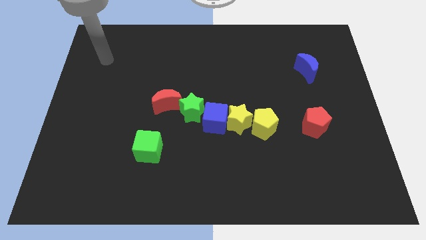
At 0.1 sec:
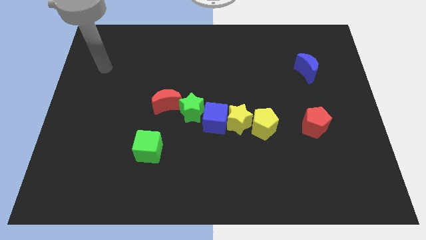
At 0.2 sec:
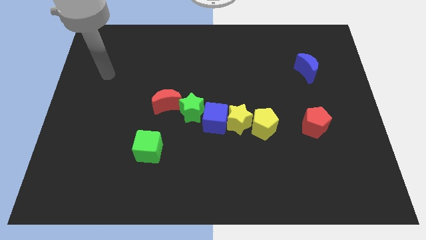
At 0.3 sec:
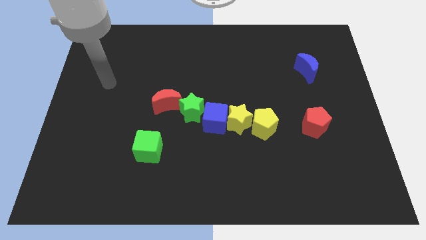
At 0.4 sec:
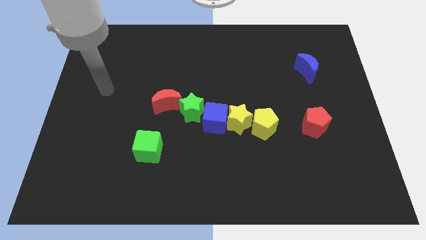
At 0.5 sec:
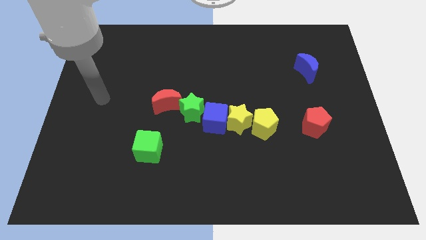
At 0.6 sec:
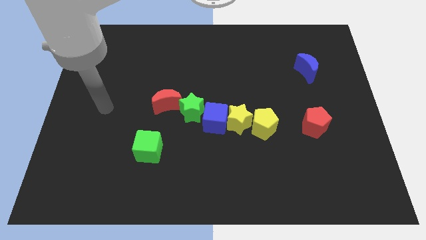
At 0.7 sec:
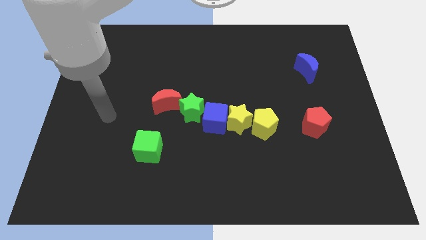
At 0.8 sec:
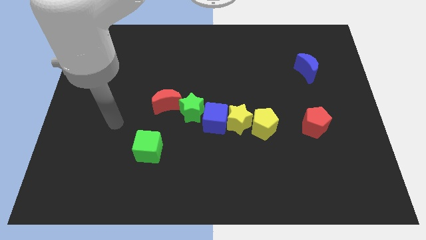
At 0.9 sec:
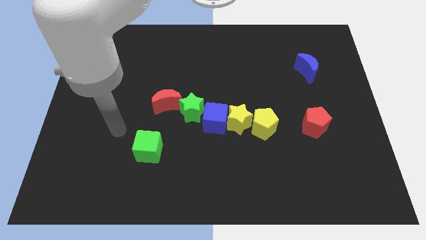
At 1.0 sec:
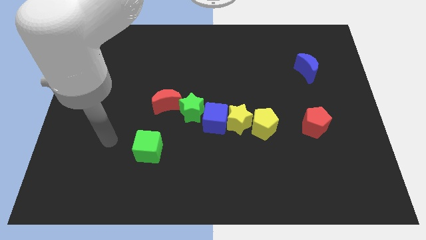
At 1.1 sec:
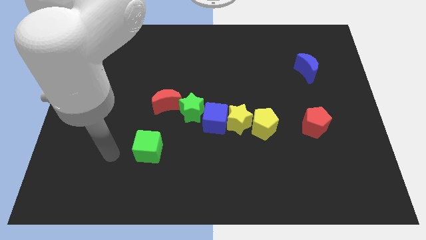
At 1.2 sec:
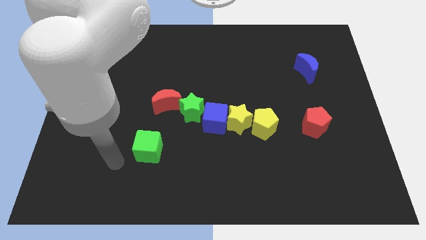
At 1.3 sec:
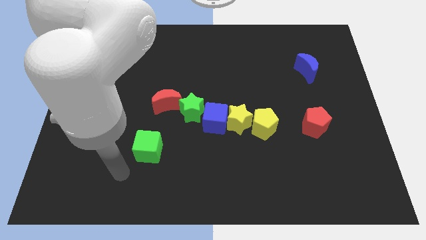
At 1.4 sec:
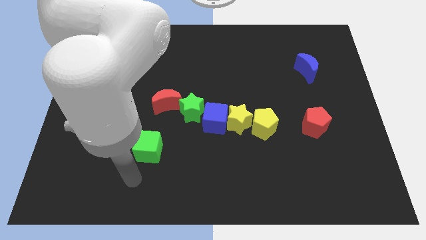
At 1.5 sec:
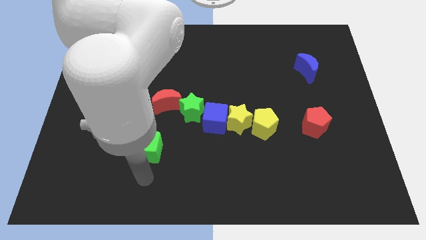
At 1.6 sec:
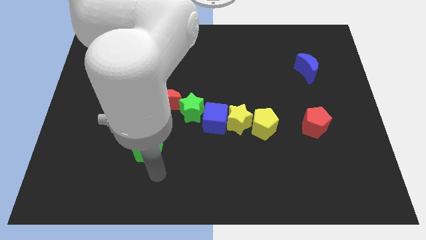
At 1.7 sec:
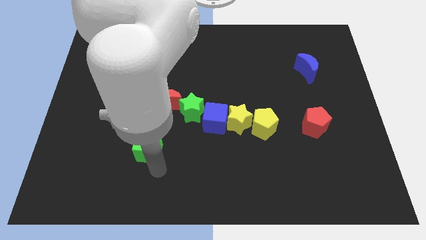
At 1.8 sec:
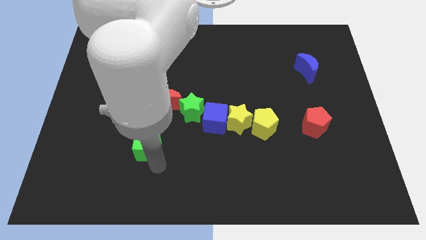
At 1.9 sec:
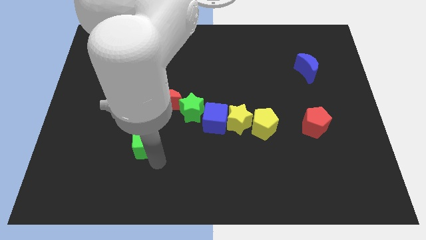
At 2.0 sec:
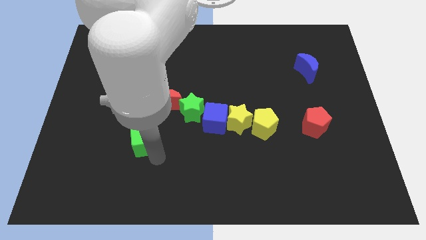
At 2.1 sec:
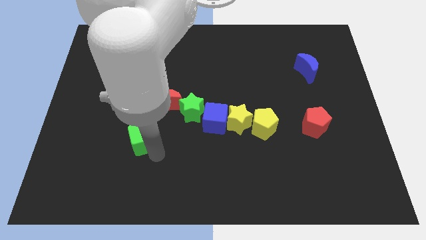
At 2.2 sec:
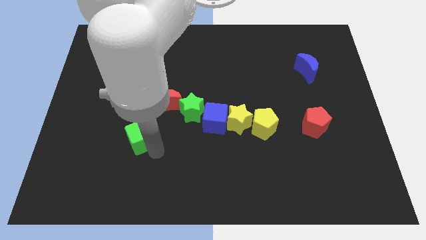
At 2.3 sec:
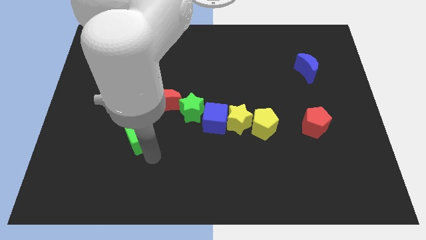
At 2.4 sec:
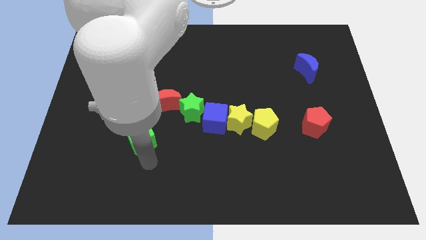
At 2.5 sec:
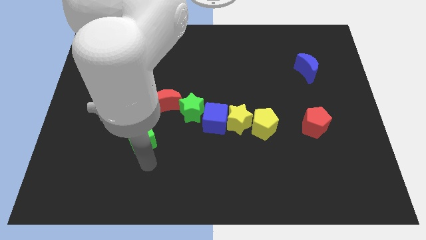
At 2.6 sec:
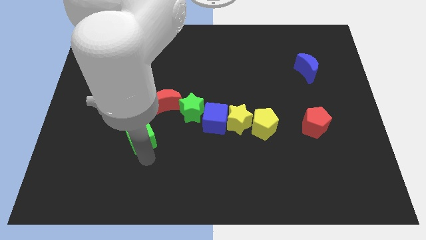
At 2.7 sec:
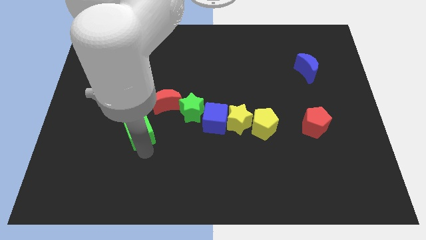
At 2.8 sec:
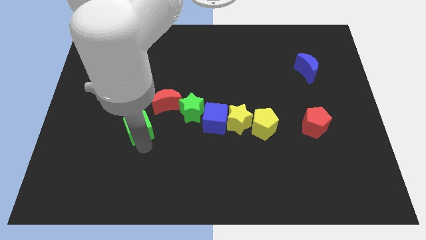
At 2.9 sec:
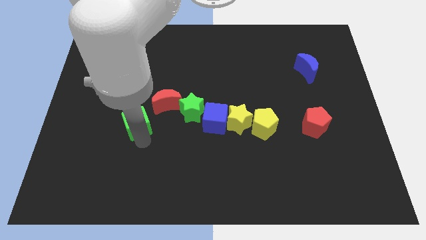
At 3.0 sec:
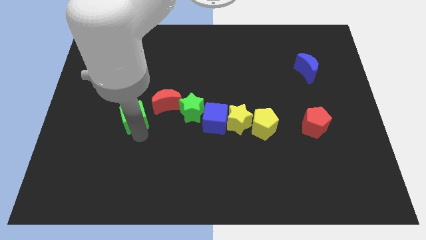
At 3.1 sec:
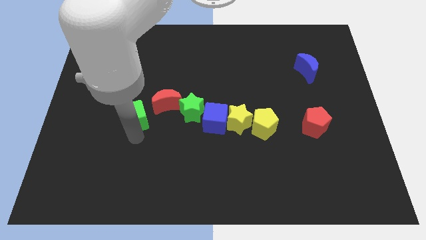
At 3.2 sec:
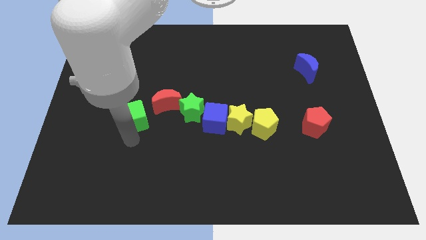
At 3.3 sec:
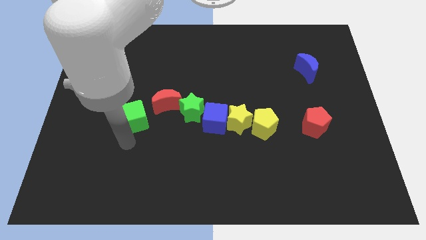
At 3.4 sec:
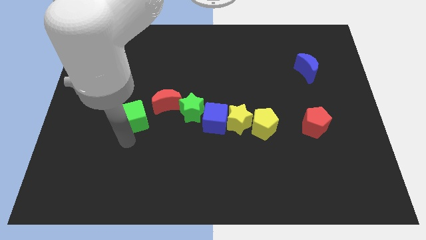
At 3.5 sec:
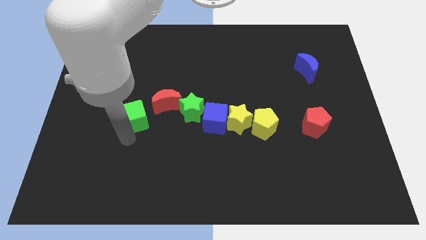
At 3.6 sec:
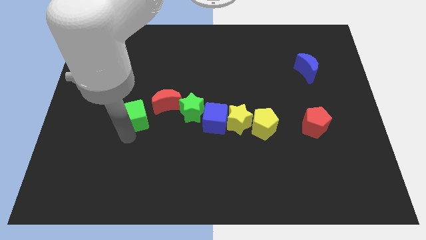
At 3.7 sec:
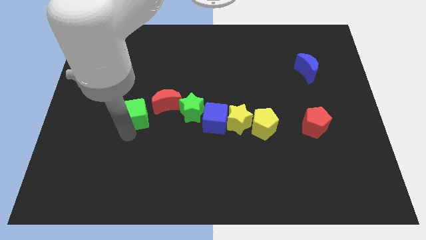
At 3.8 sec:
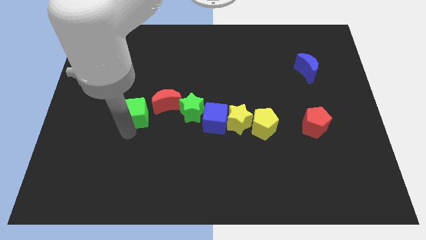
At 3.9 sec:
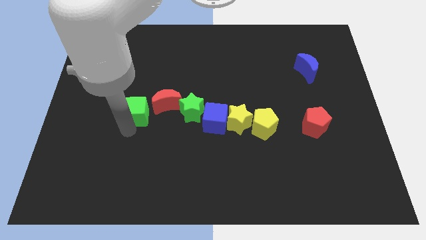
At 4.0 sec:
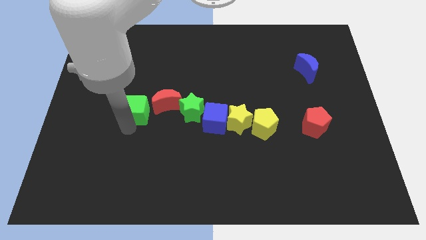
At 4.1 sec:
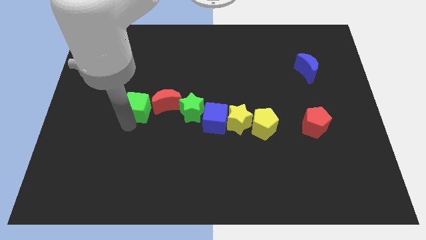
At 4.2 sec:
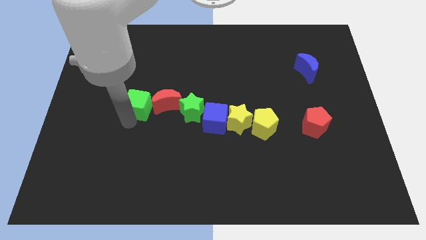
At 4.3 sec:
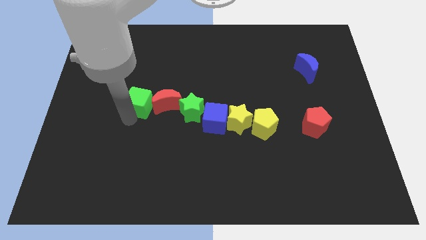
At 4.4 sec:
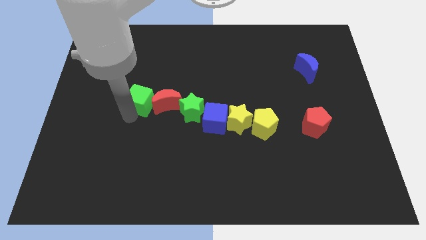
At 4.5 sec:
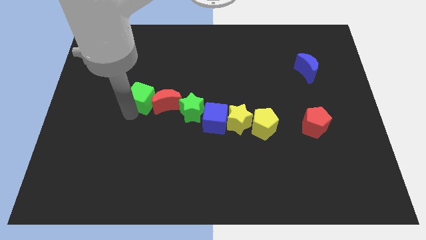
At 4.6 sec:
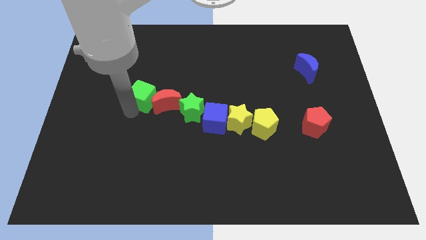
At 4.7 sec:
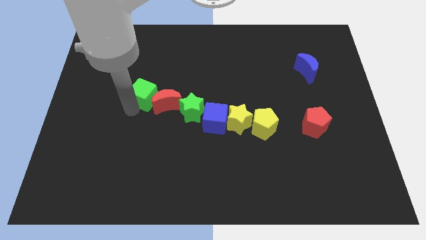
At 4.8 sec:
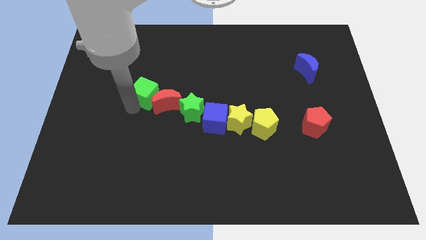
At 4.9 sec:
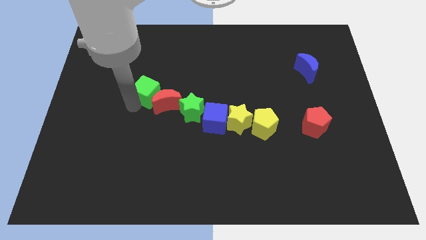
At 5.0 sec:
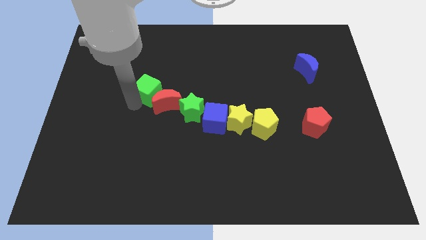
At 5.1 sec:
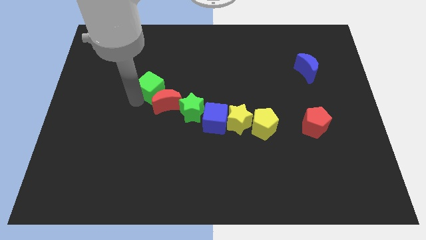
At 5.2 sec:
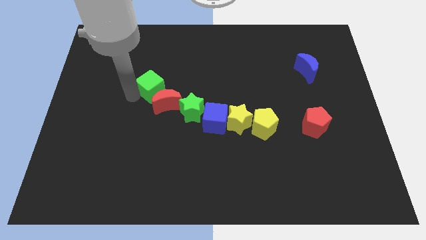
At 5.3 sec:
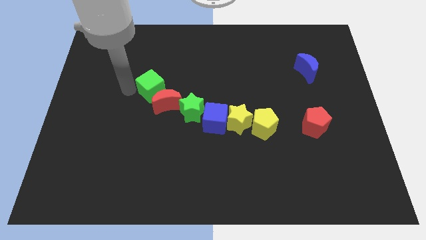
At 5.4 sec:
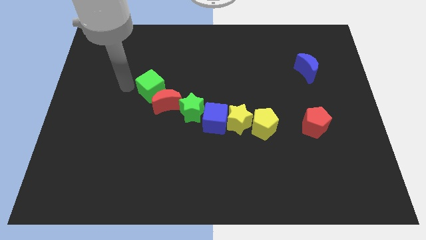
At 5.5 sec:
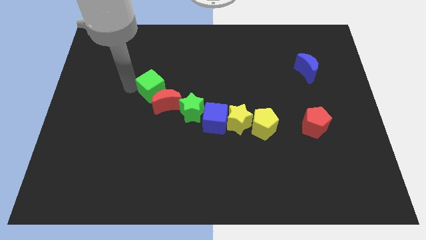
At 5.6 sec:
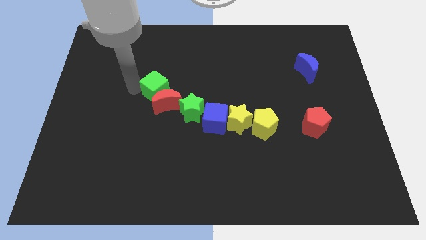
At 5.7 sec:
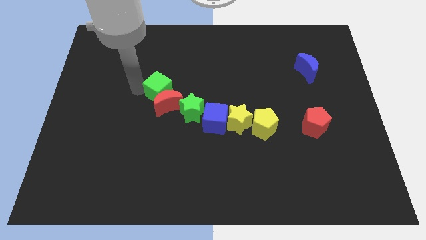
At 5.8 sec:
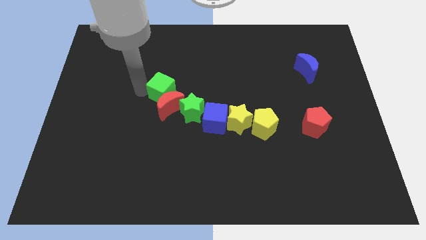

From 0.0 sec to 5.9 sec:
slide the green cube upwards and then right a little bit

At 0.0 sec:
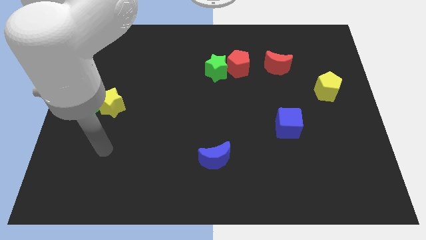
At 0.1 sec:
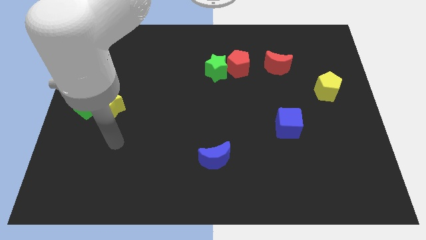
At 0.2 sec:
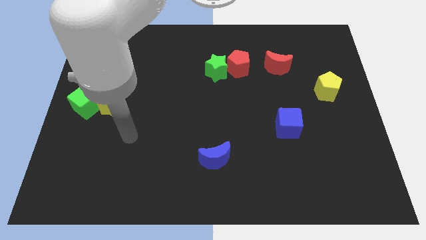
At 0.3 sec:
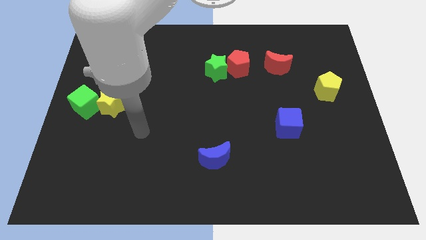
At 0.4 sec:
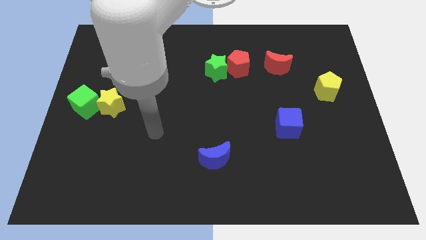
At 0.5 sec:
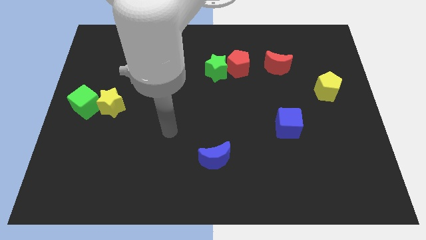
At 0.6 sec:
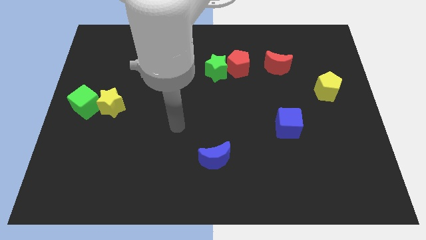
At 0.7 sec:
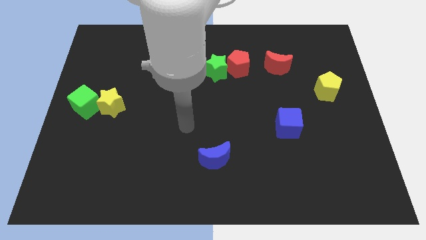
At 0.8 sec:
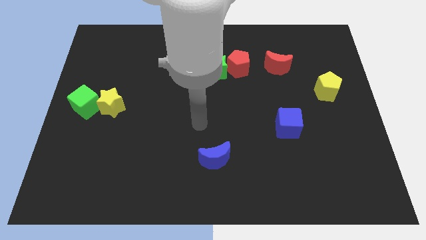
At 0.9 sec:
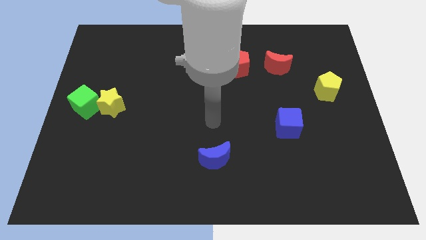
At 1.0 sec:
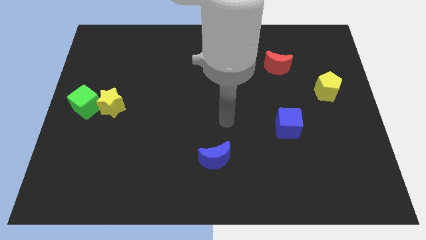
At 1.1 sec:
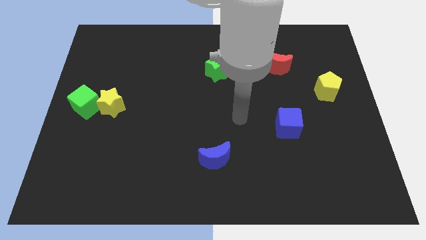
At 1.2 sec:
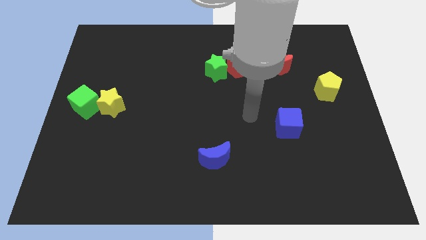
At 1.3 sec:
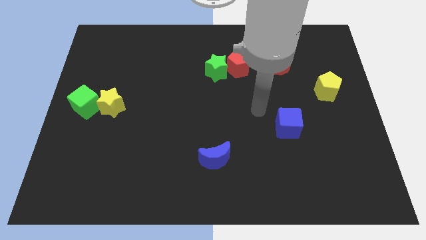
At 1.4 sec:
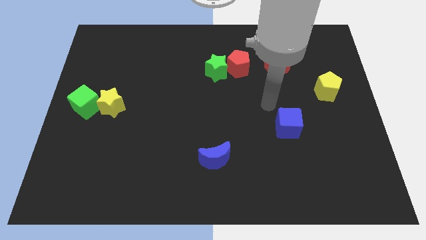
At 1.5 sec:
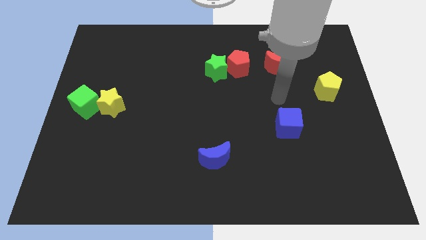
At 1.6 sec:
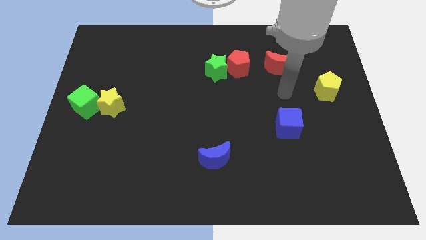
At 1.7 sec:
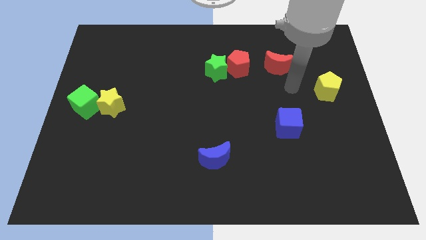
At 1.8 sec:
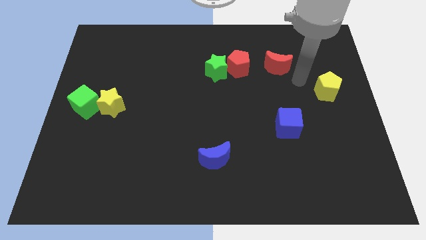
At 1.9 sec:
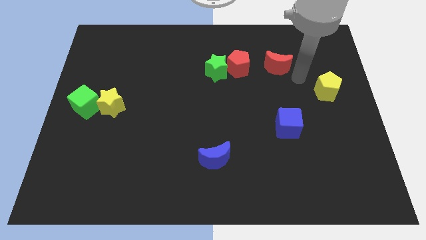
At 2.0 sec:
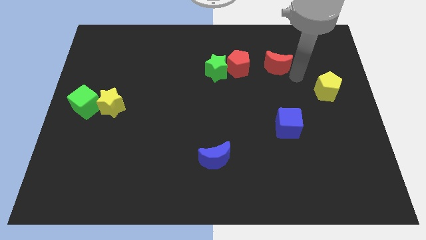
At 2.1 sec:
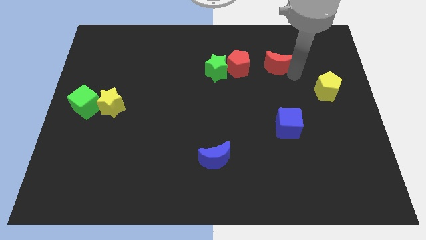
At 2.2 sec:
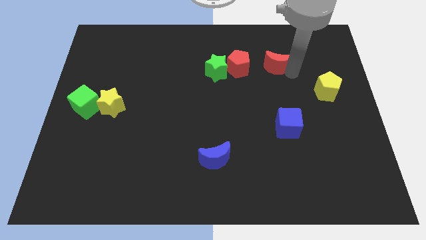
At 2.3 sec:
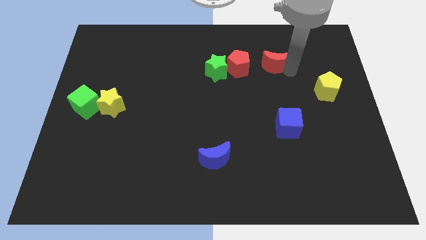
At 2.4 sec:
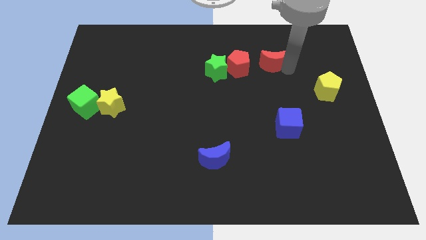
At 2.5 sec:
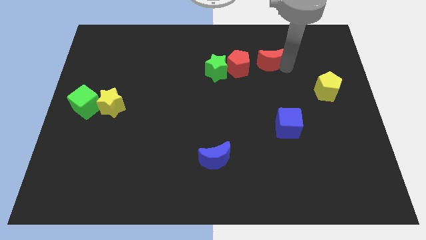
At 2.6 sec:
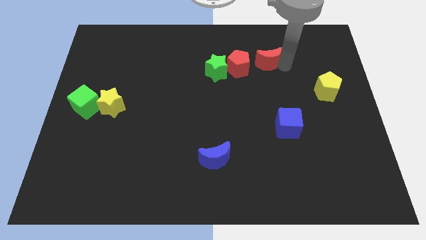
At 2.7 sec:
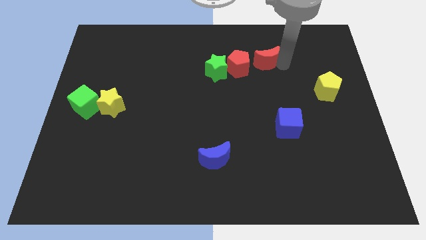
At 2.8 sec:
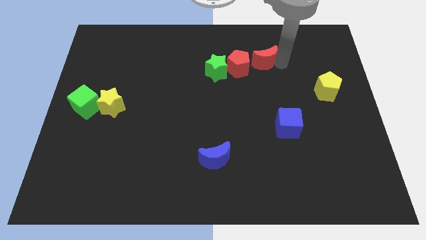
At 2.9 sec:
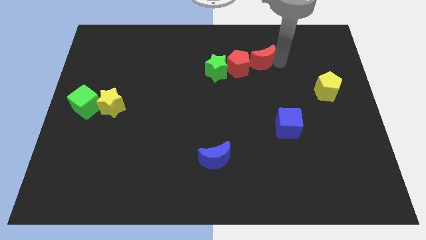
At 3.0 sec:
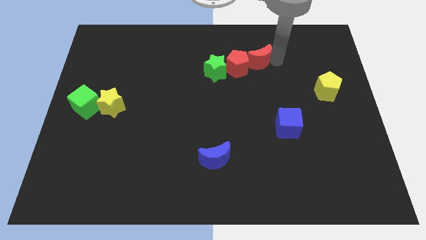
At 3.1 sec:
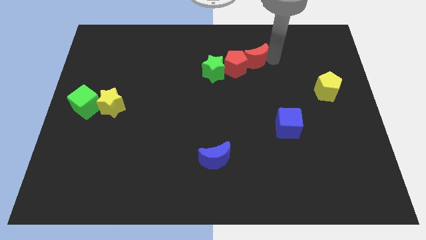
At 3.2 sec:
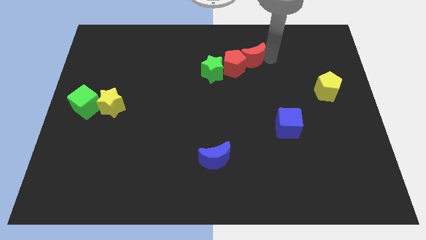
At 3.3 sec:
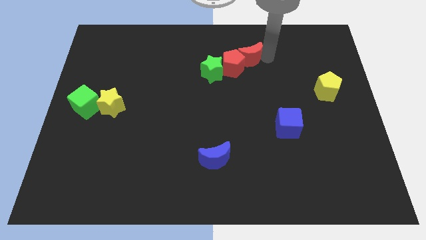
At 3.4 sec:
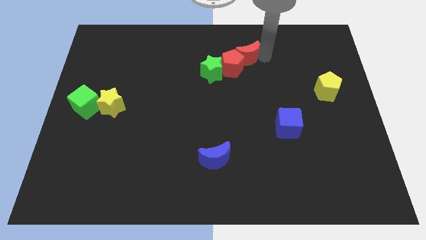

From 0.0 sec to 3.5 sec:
move the red moon slightly to the left
